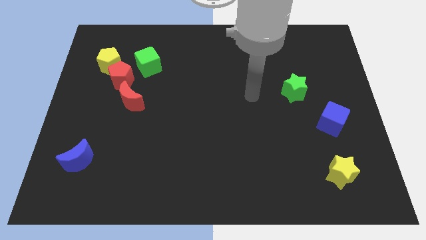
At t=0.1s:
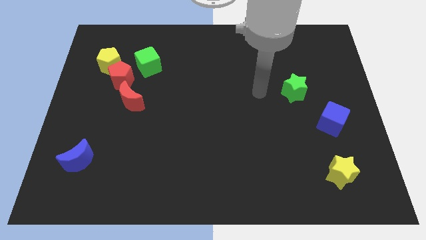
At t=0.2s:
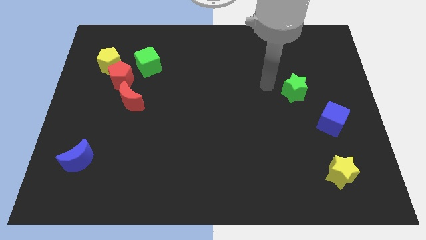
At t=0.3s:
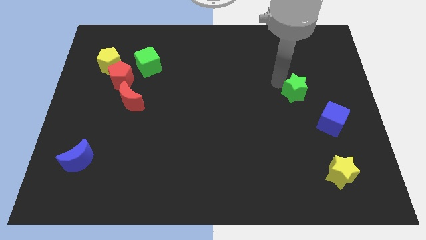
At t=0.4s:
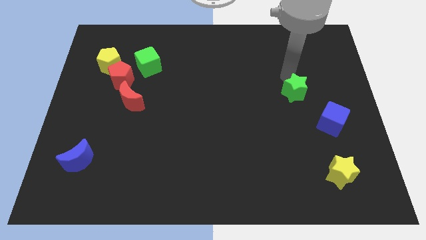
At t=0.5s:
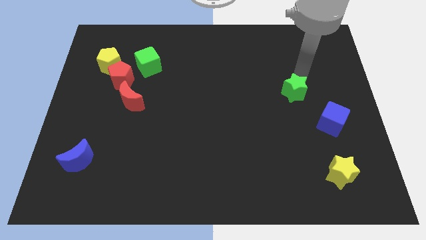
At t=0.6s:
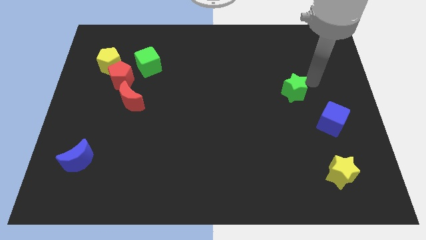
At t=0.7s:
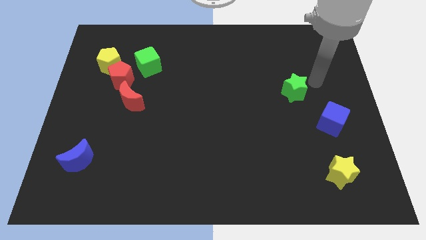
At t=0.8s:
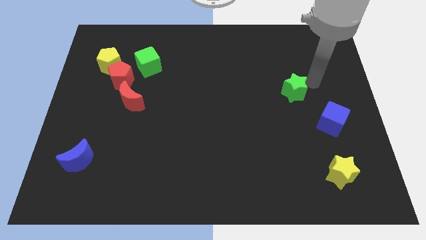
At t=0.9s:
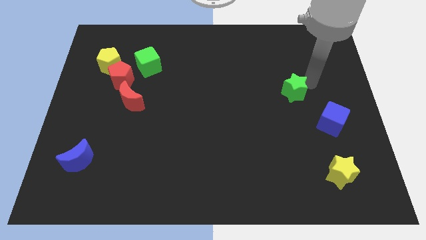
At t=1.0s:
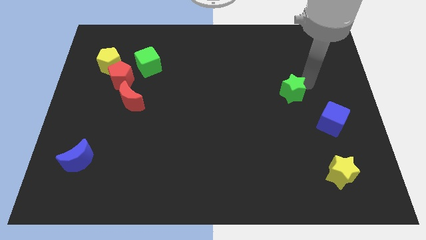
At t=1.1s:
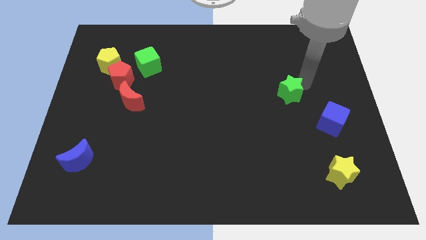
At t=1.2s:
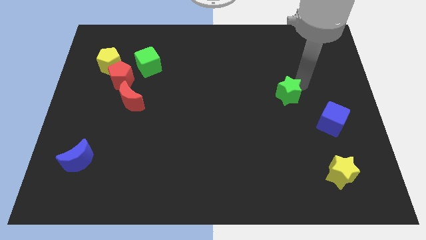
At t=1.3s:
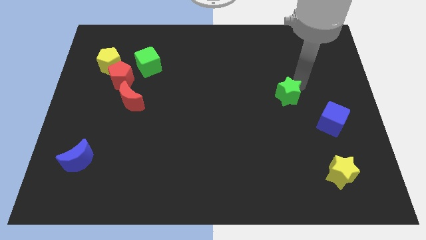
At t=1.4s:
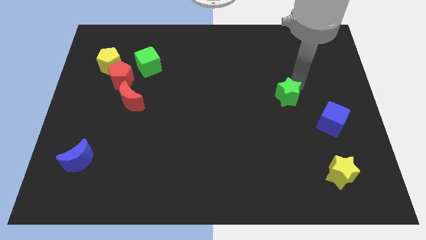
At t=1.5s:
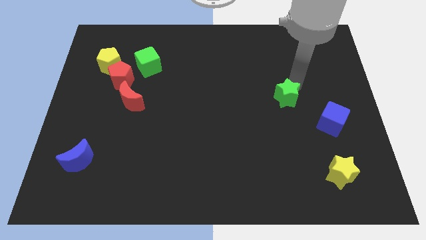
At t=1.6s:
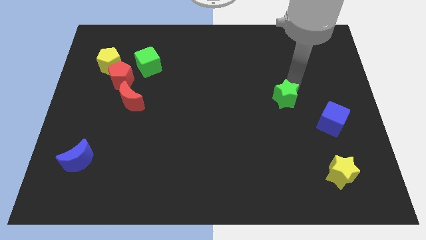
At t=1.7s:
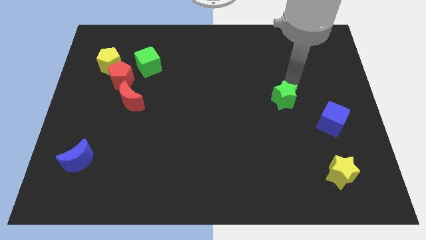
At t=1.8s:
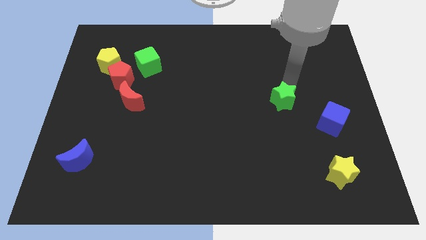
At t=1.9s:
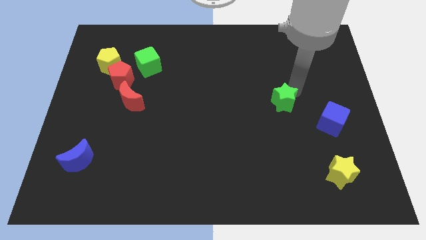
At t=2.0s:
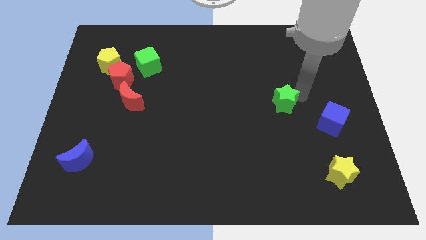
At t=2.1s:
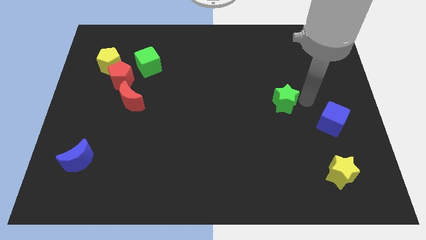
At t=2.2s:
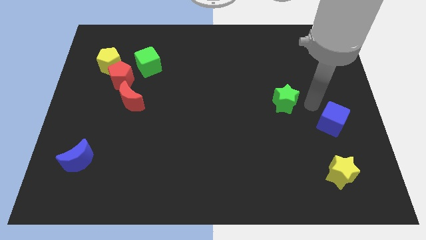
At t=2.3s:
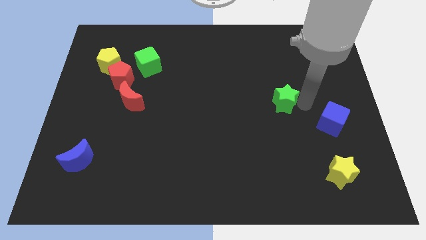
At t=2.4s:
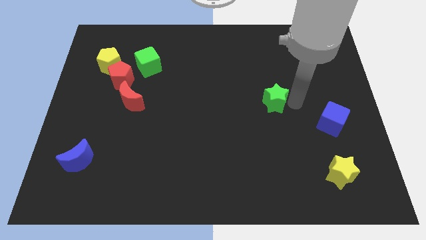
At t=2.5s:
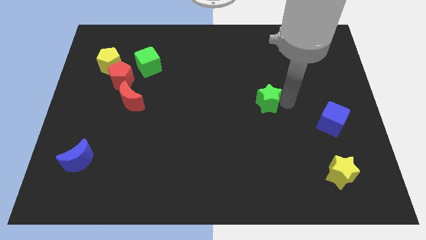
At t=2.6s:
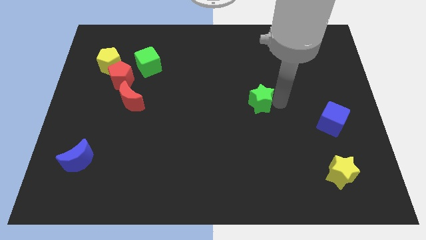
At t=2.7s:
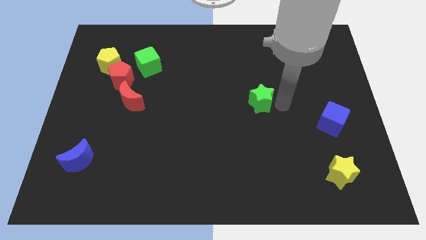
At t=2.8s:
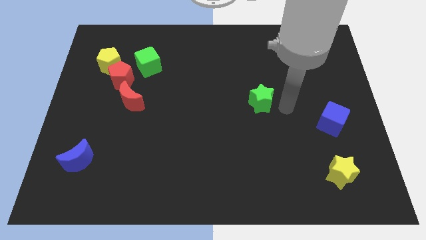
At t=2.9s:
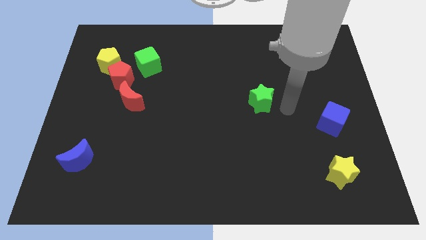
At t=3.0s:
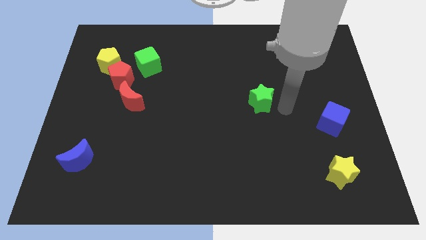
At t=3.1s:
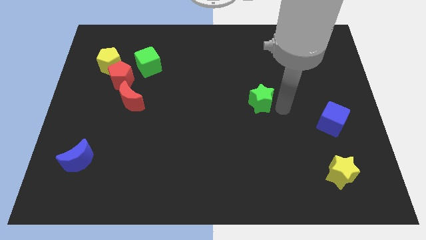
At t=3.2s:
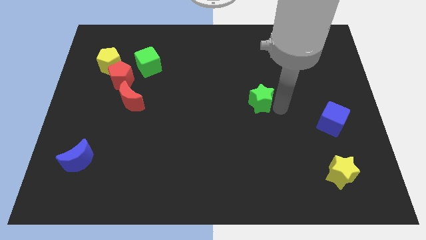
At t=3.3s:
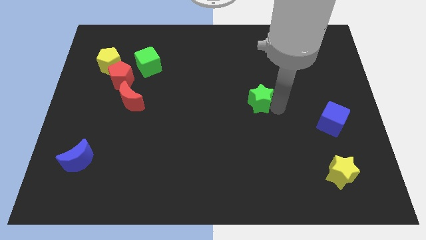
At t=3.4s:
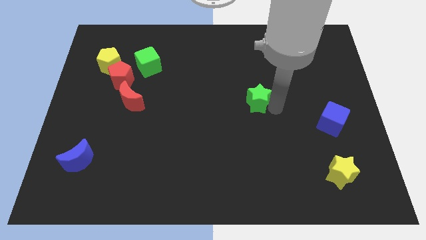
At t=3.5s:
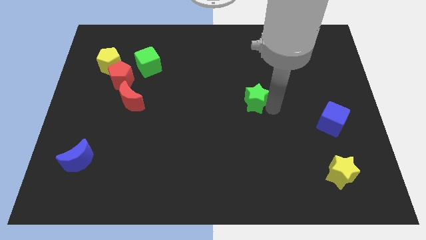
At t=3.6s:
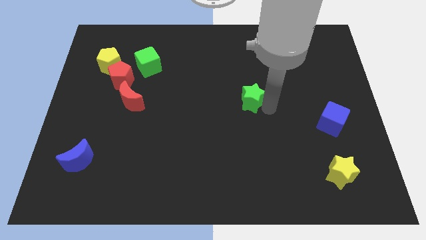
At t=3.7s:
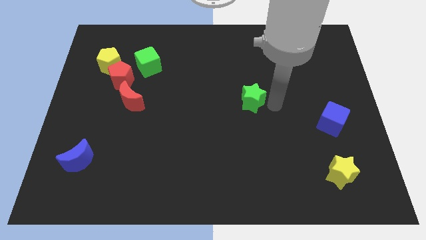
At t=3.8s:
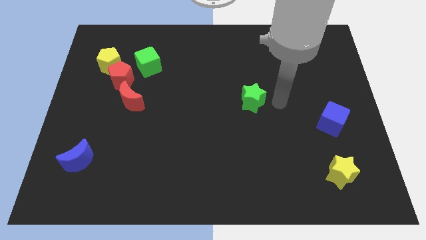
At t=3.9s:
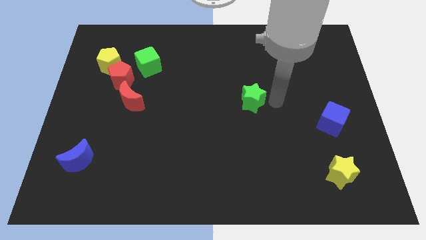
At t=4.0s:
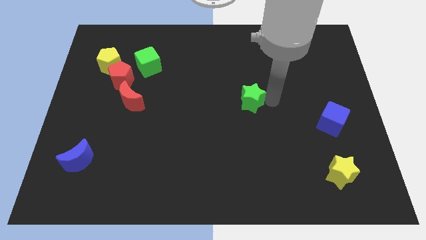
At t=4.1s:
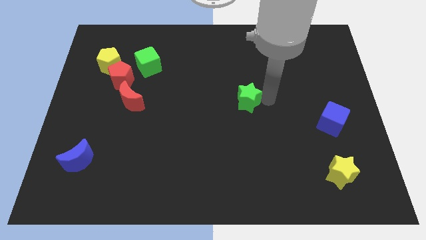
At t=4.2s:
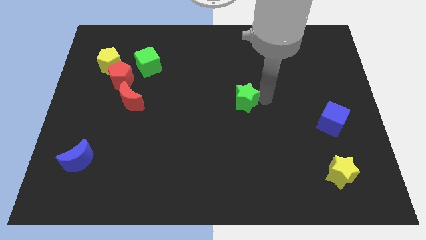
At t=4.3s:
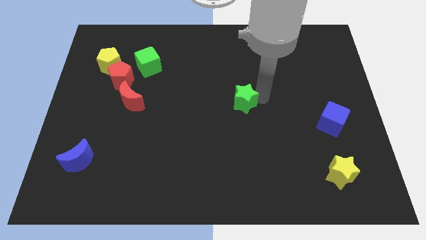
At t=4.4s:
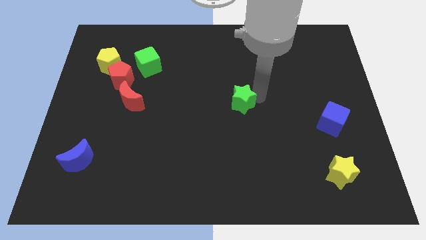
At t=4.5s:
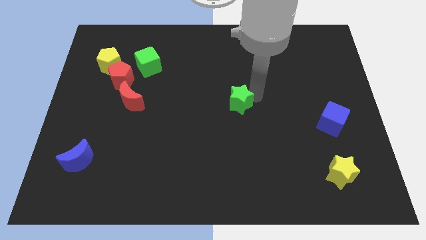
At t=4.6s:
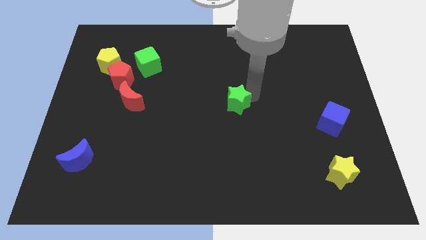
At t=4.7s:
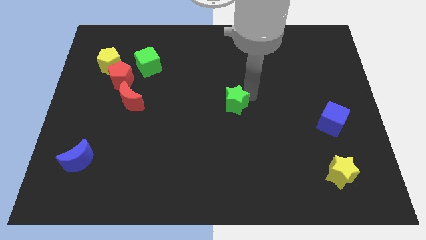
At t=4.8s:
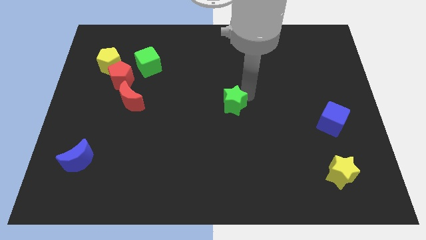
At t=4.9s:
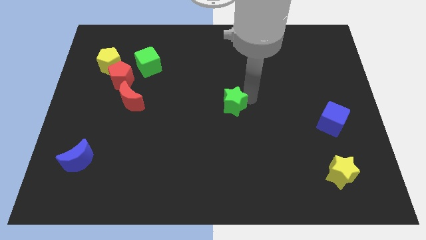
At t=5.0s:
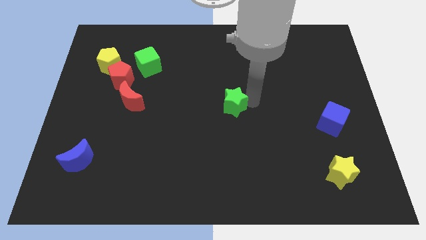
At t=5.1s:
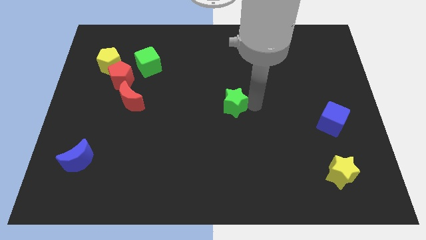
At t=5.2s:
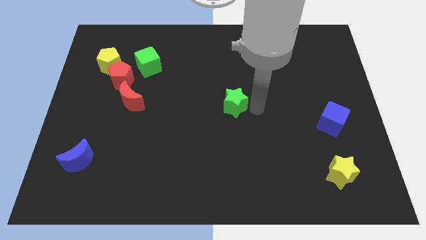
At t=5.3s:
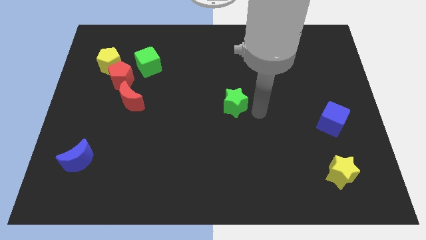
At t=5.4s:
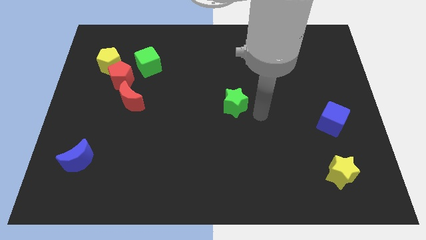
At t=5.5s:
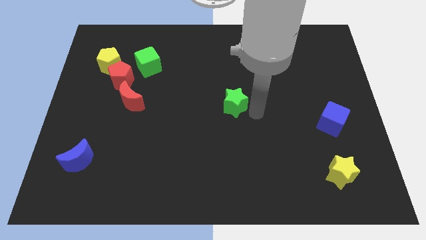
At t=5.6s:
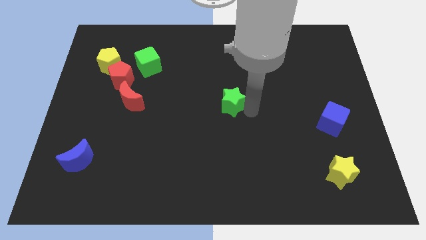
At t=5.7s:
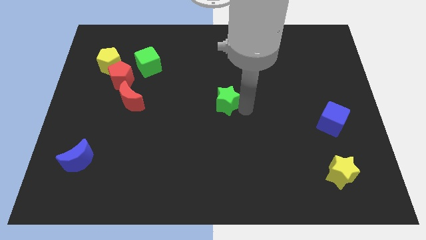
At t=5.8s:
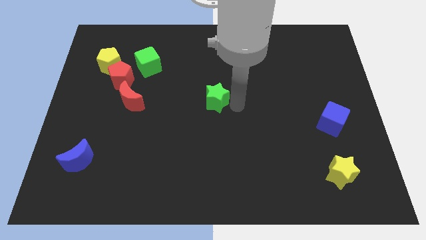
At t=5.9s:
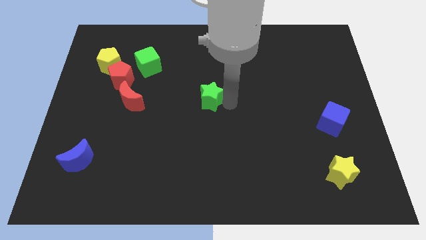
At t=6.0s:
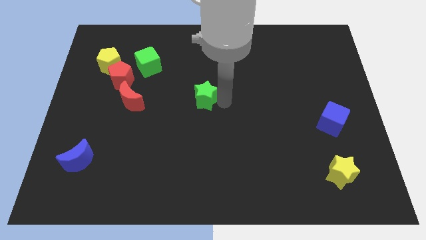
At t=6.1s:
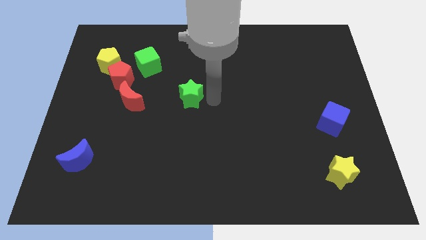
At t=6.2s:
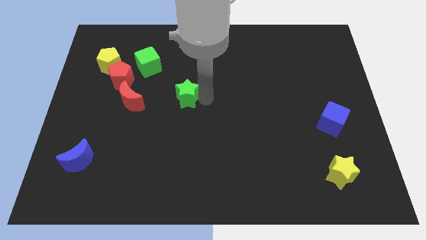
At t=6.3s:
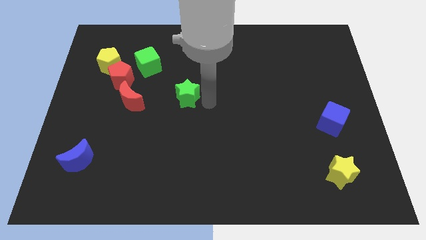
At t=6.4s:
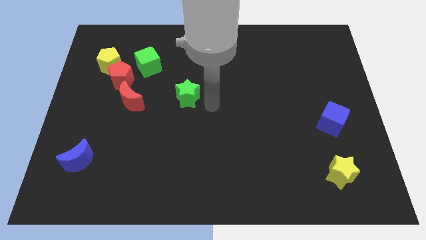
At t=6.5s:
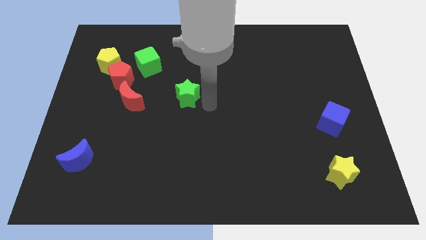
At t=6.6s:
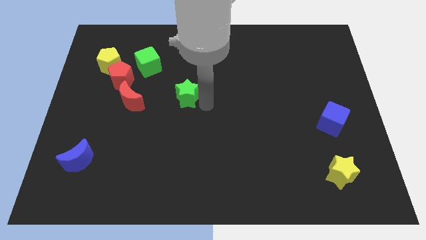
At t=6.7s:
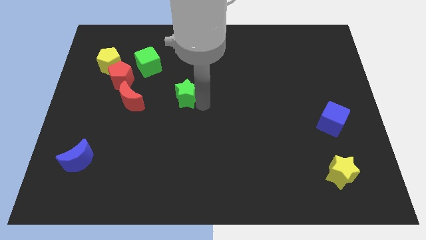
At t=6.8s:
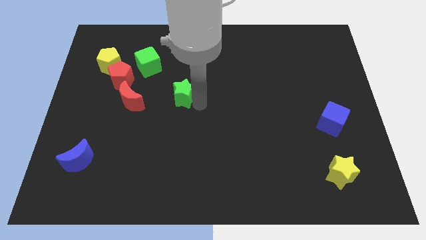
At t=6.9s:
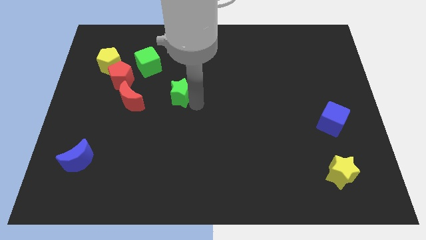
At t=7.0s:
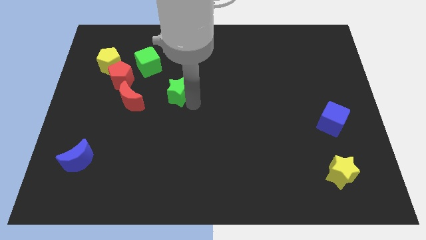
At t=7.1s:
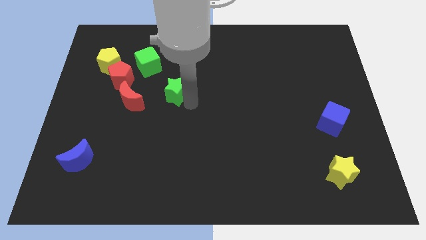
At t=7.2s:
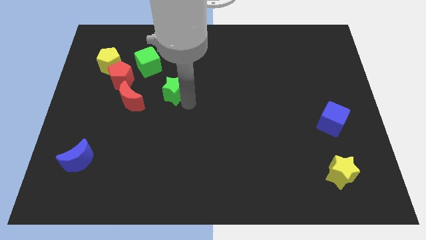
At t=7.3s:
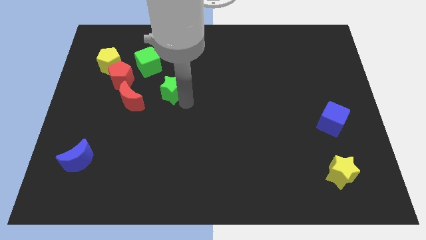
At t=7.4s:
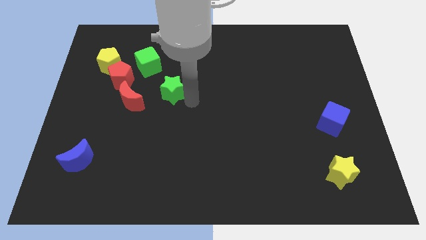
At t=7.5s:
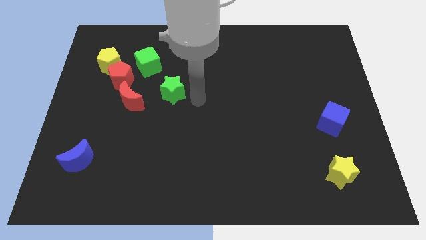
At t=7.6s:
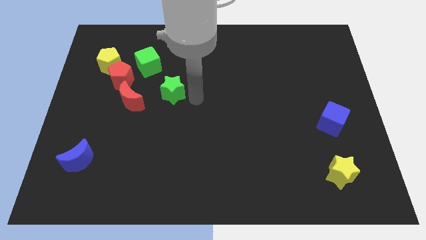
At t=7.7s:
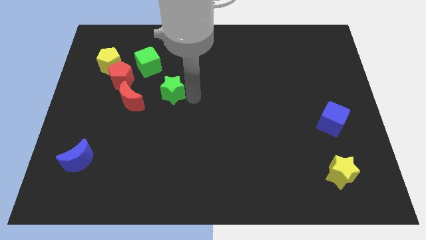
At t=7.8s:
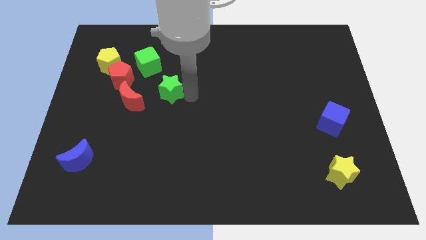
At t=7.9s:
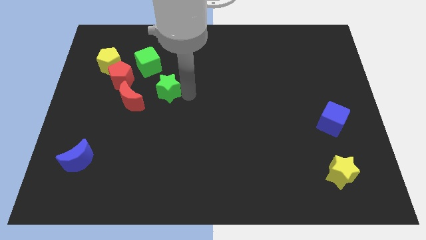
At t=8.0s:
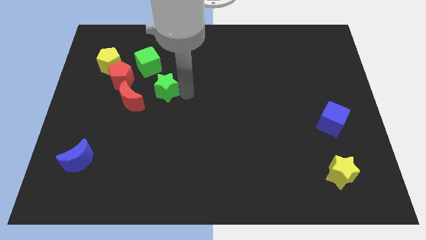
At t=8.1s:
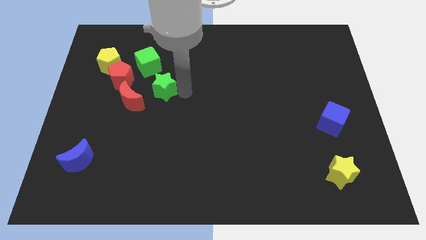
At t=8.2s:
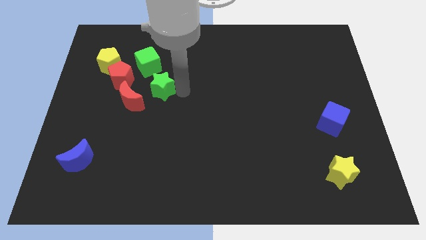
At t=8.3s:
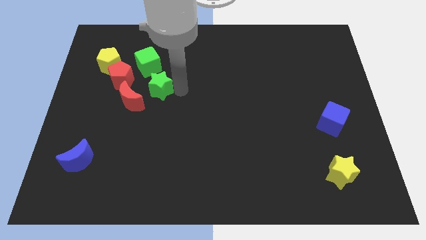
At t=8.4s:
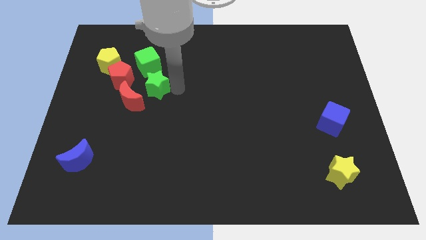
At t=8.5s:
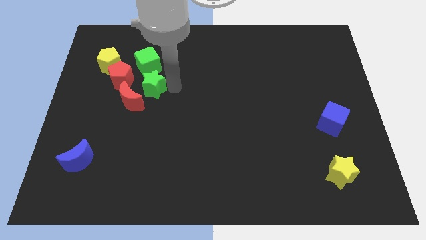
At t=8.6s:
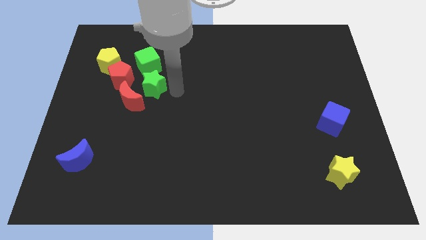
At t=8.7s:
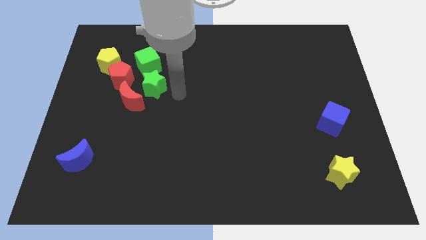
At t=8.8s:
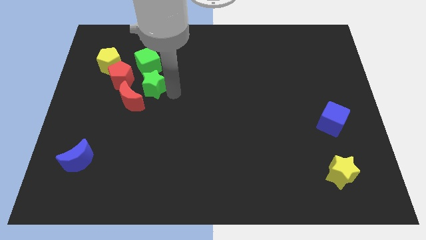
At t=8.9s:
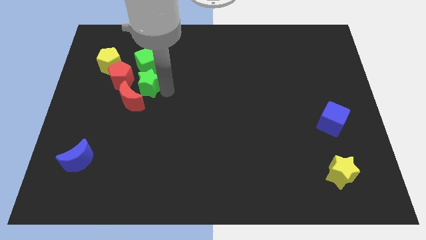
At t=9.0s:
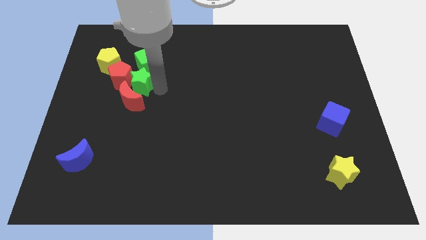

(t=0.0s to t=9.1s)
push the green star to the bottom right side of the yellow pentagon
